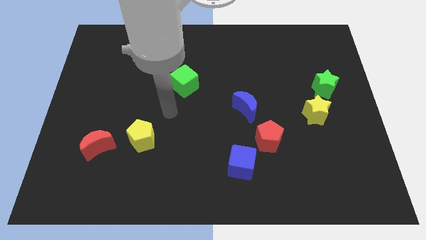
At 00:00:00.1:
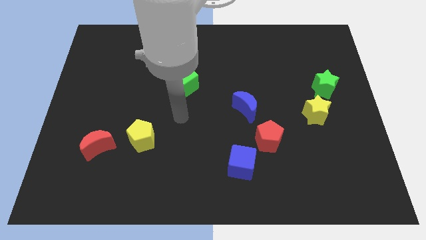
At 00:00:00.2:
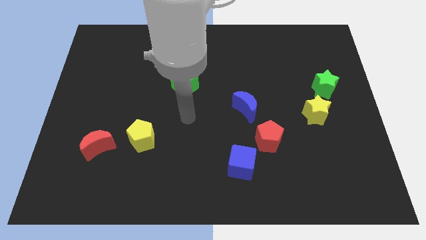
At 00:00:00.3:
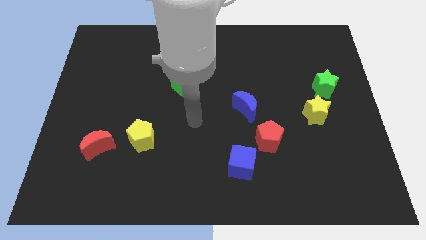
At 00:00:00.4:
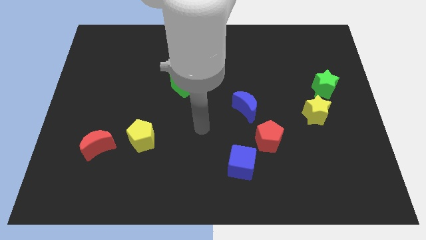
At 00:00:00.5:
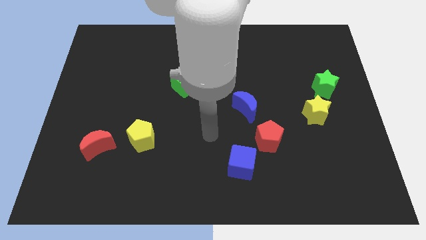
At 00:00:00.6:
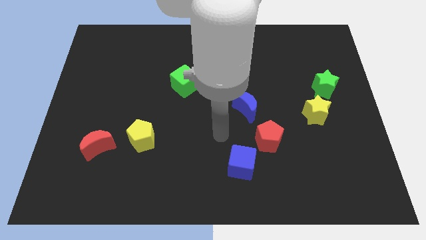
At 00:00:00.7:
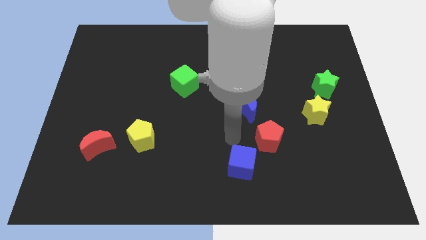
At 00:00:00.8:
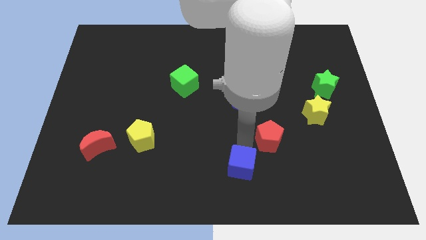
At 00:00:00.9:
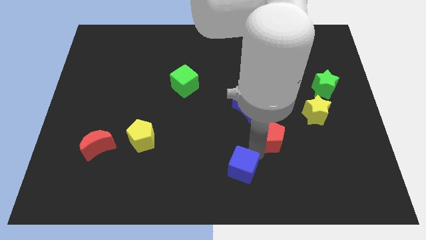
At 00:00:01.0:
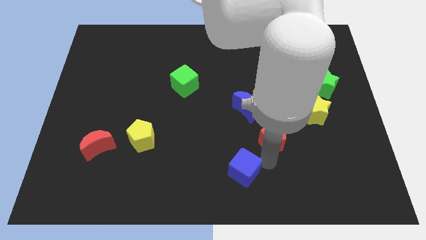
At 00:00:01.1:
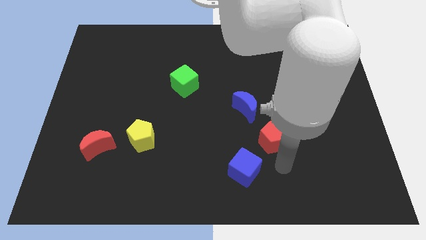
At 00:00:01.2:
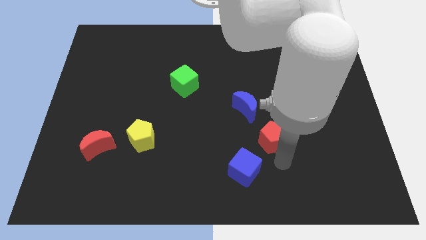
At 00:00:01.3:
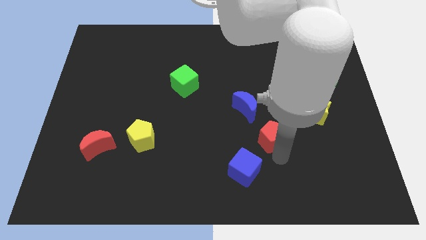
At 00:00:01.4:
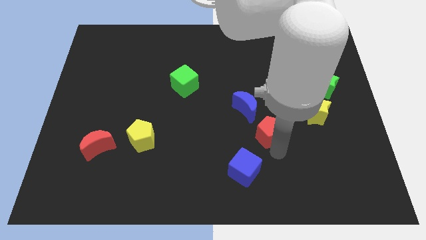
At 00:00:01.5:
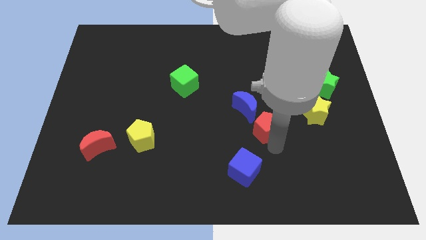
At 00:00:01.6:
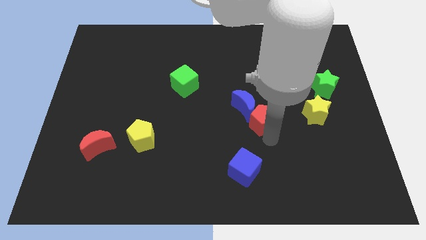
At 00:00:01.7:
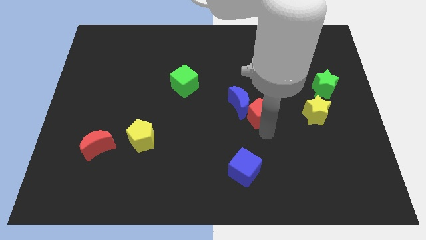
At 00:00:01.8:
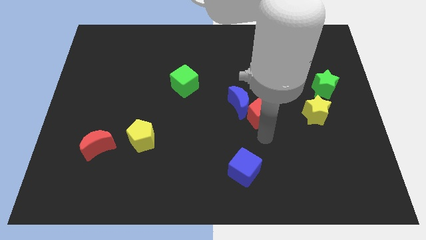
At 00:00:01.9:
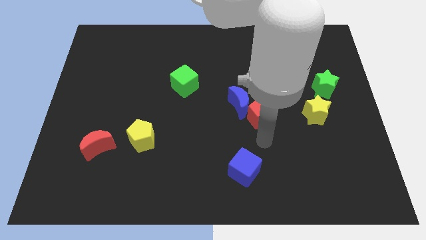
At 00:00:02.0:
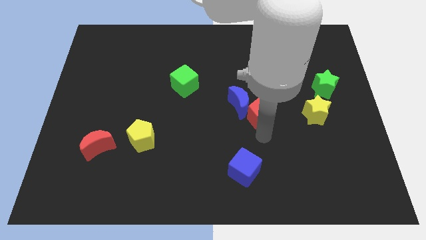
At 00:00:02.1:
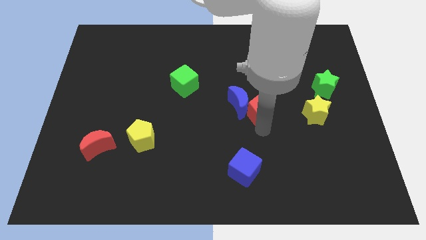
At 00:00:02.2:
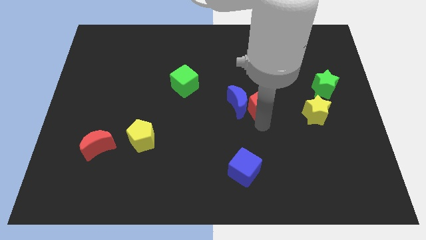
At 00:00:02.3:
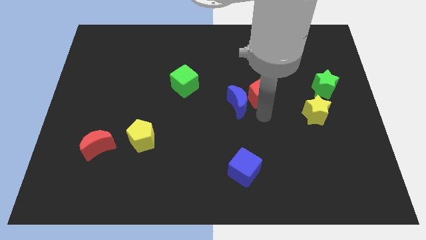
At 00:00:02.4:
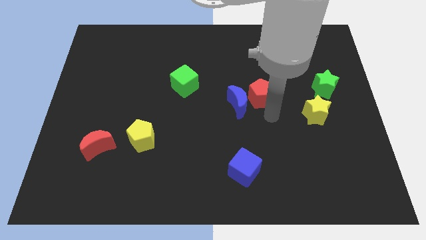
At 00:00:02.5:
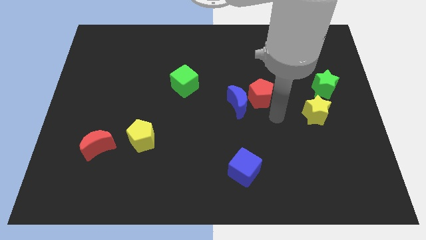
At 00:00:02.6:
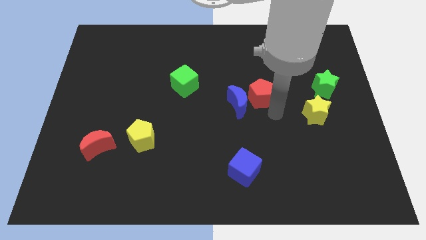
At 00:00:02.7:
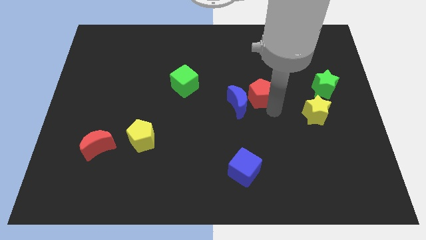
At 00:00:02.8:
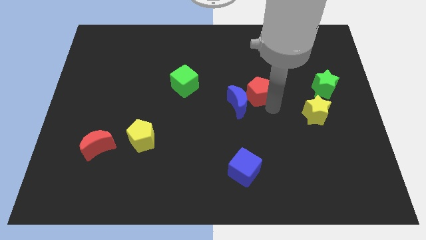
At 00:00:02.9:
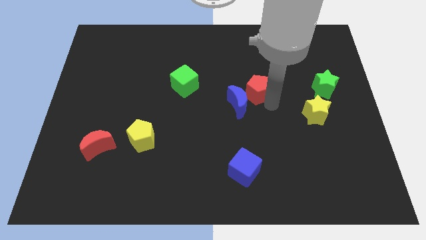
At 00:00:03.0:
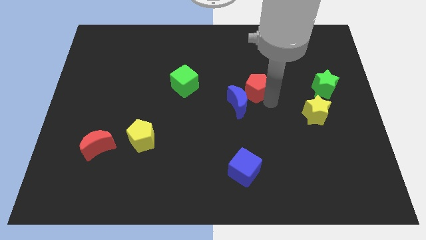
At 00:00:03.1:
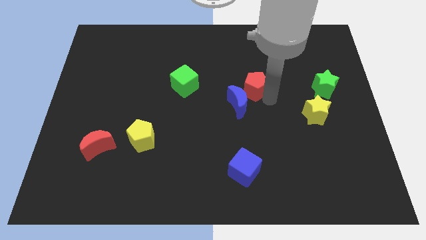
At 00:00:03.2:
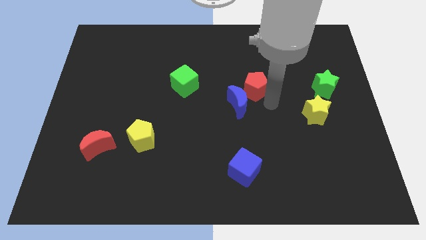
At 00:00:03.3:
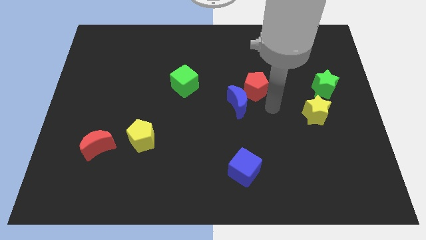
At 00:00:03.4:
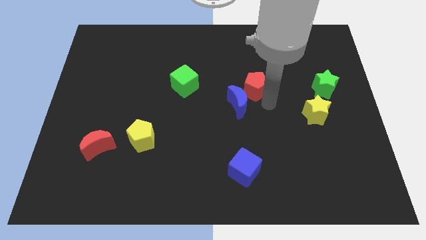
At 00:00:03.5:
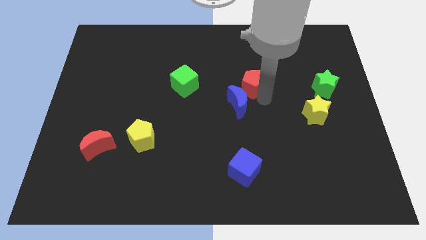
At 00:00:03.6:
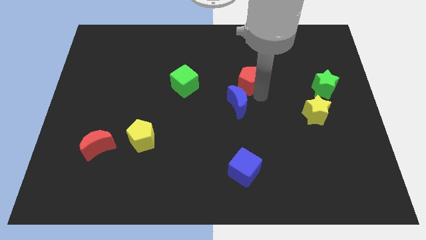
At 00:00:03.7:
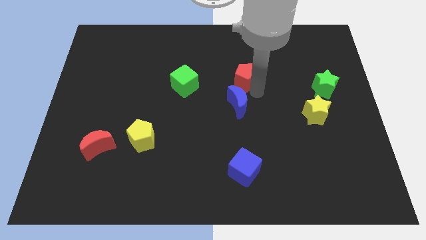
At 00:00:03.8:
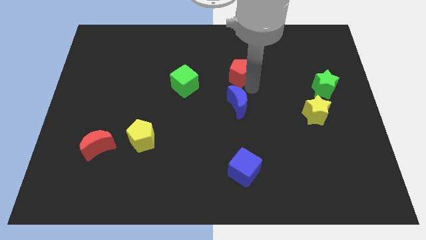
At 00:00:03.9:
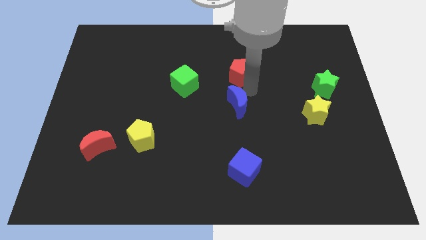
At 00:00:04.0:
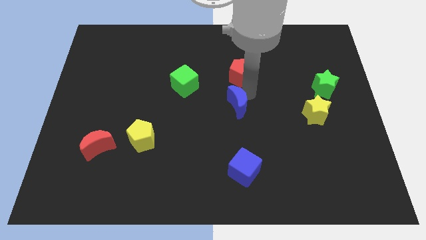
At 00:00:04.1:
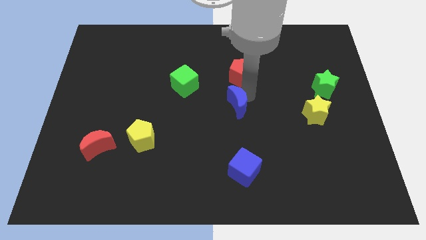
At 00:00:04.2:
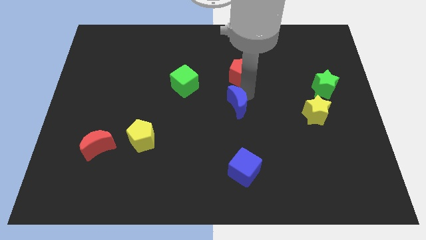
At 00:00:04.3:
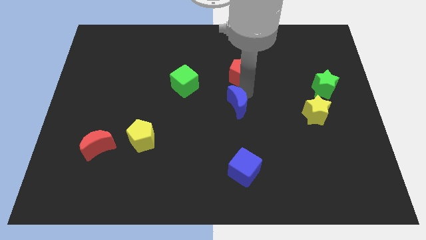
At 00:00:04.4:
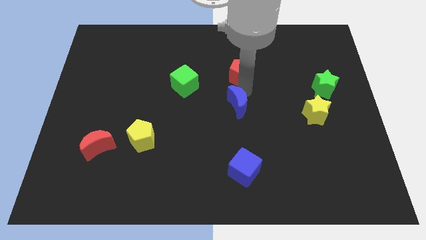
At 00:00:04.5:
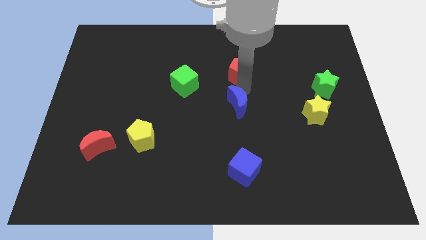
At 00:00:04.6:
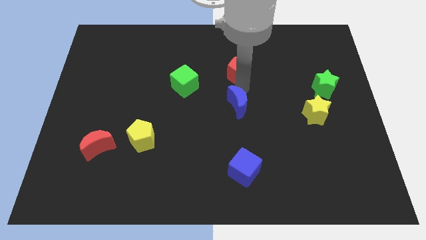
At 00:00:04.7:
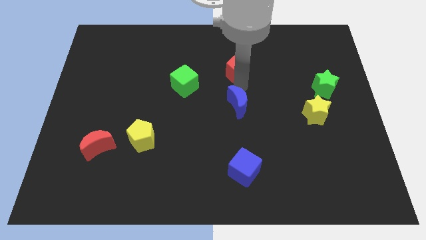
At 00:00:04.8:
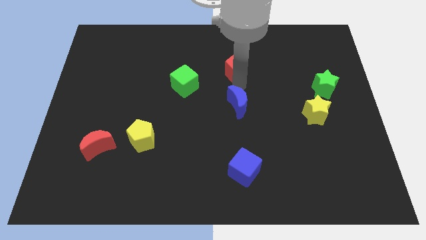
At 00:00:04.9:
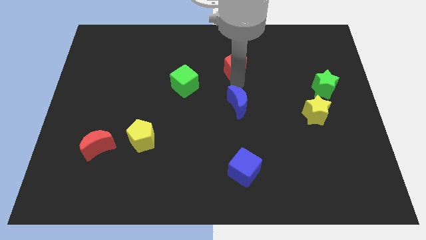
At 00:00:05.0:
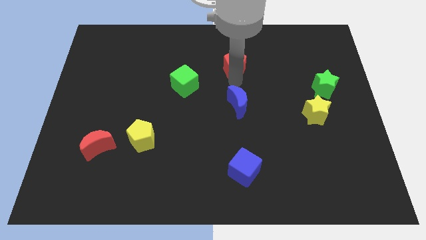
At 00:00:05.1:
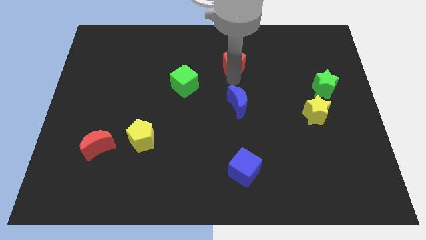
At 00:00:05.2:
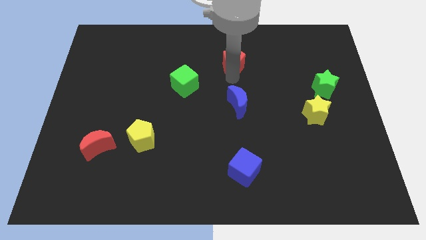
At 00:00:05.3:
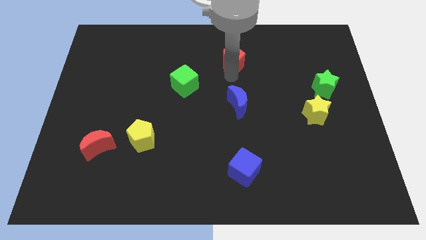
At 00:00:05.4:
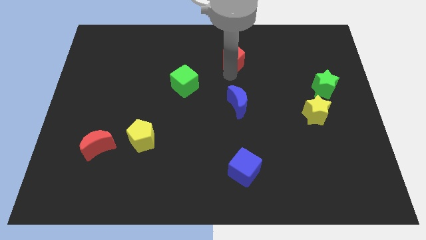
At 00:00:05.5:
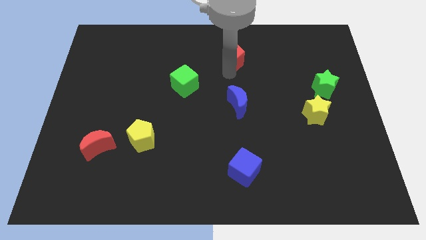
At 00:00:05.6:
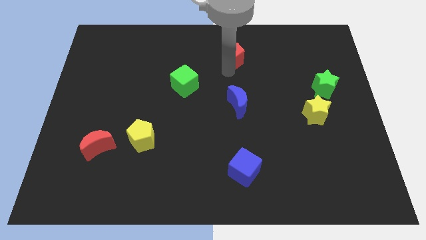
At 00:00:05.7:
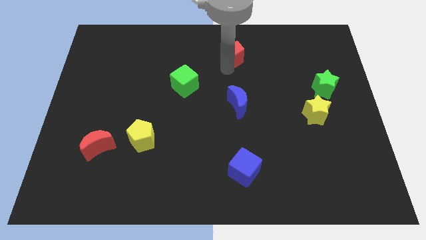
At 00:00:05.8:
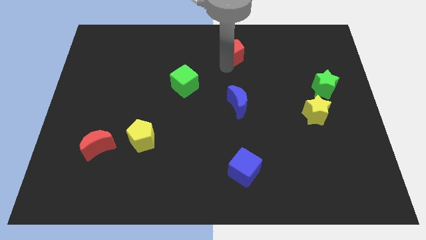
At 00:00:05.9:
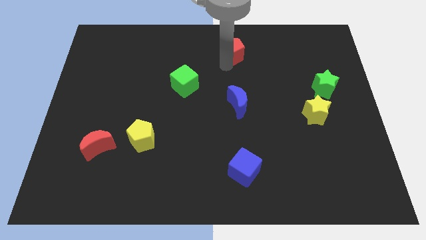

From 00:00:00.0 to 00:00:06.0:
push the red pentagon to the top
